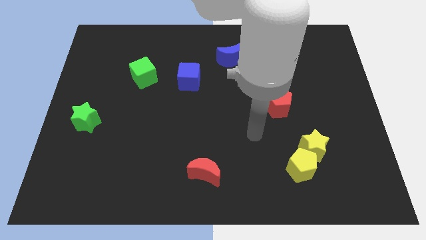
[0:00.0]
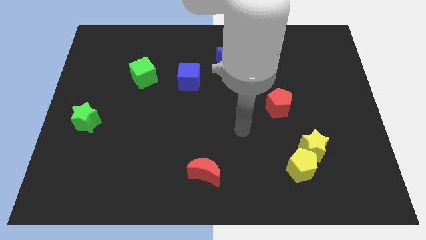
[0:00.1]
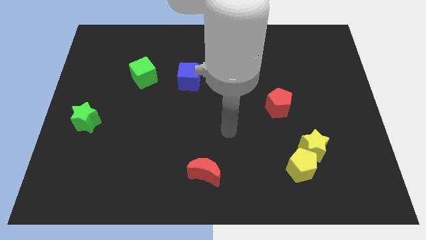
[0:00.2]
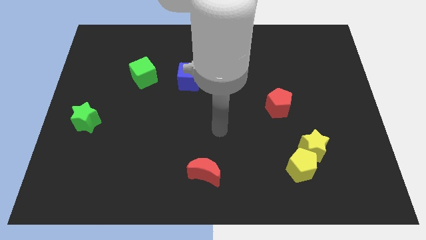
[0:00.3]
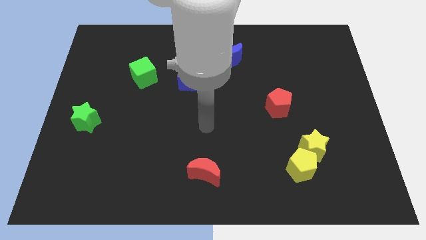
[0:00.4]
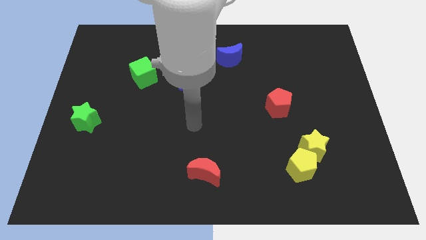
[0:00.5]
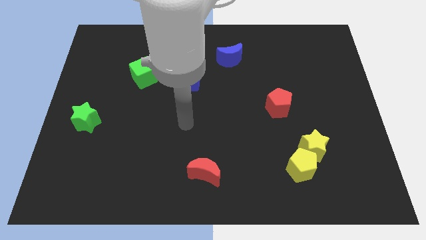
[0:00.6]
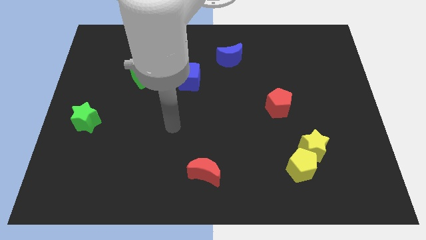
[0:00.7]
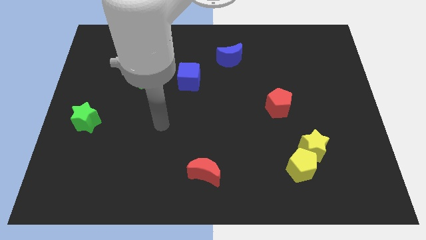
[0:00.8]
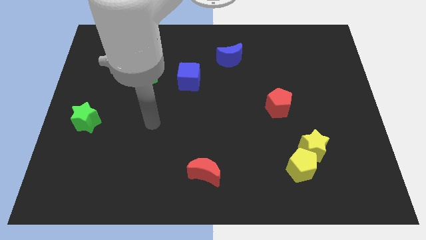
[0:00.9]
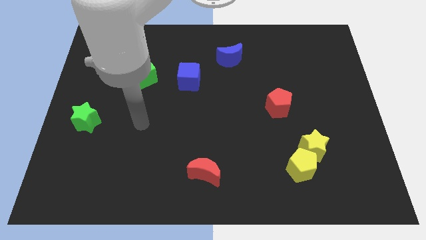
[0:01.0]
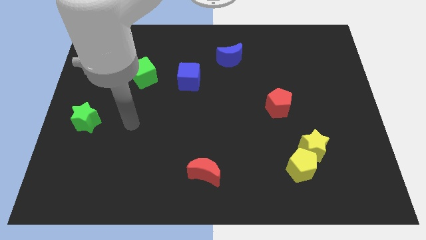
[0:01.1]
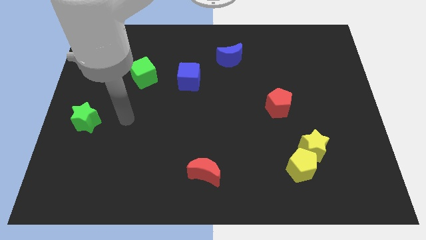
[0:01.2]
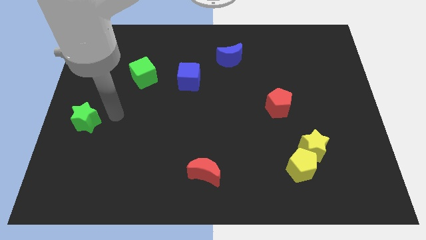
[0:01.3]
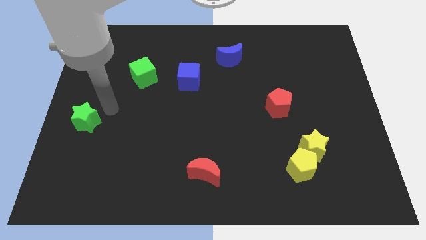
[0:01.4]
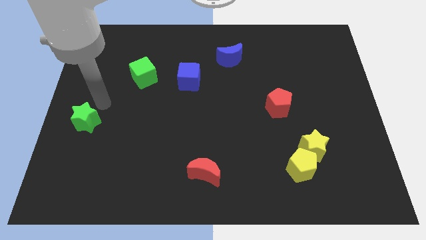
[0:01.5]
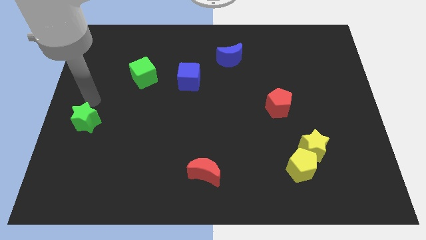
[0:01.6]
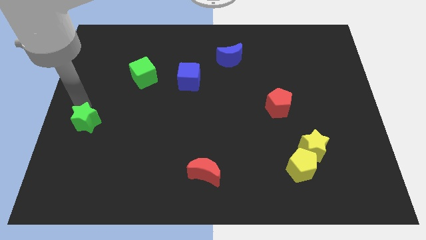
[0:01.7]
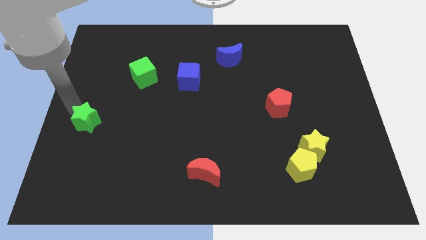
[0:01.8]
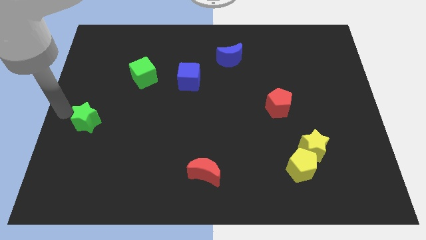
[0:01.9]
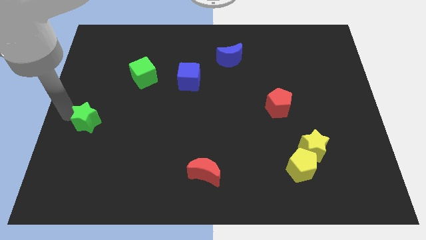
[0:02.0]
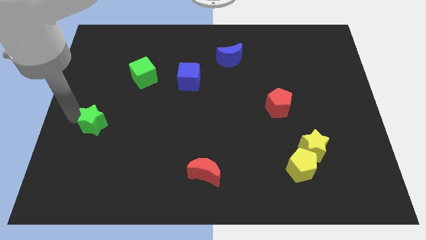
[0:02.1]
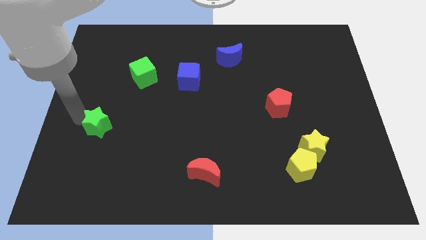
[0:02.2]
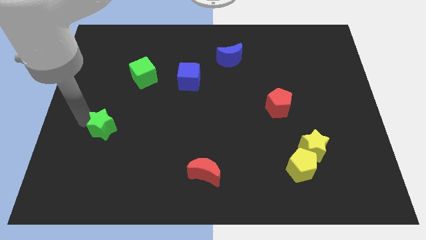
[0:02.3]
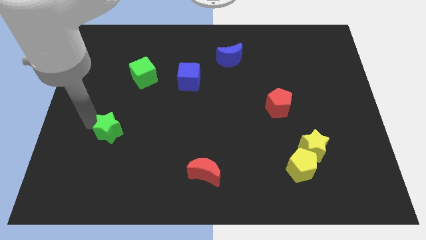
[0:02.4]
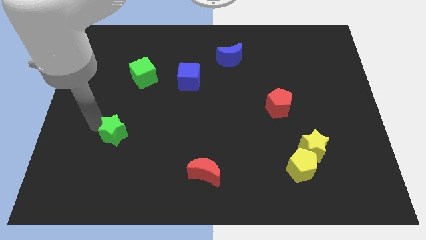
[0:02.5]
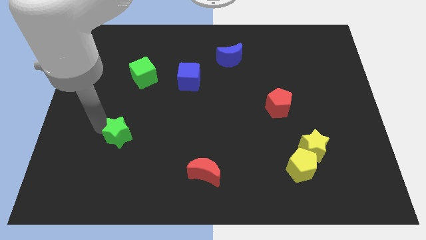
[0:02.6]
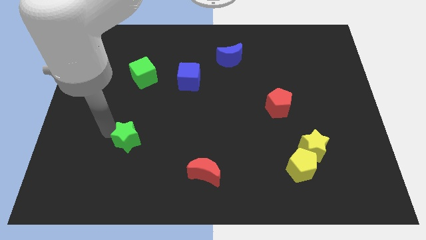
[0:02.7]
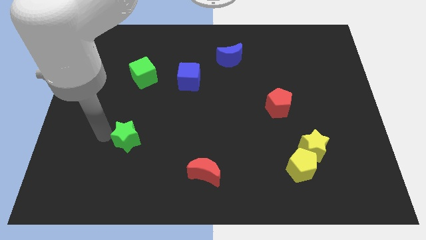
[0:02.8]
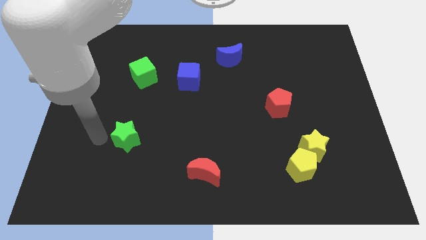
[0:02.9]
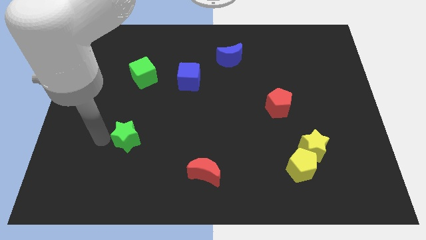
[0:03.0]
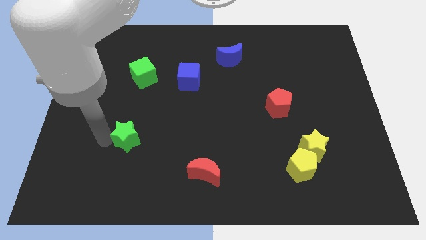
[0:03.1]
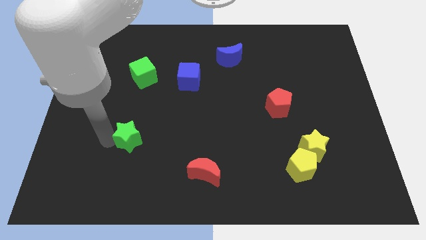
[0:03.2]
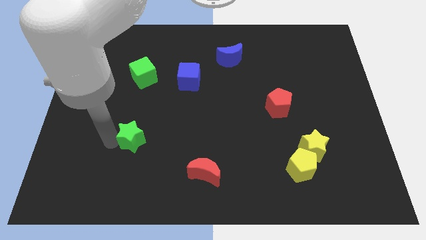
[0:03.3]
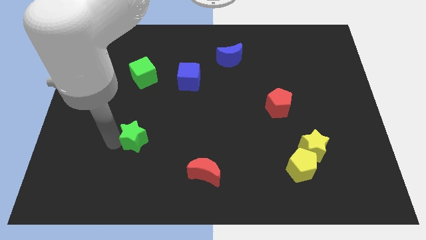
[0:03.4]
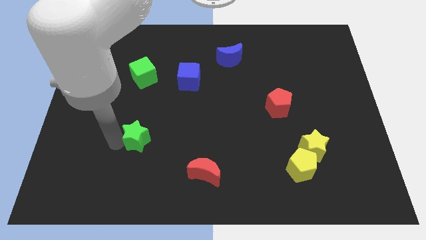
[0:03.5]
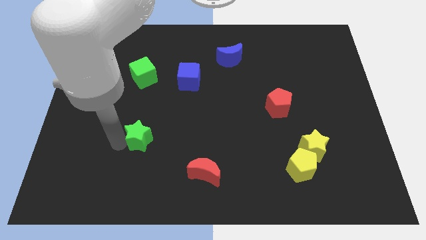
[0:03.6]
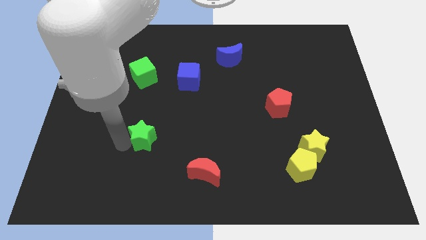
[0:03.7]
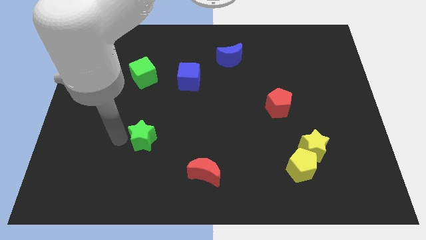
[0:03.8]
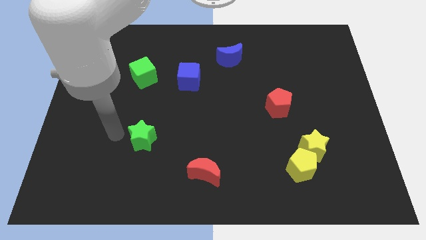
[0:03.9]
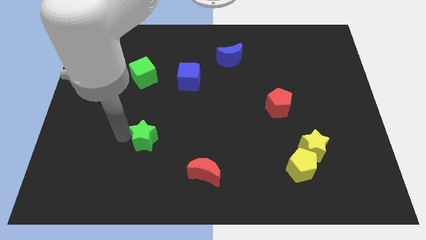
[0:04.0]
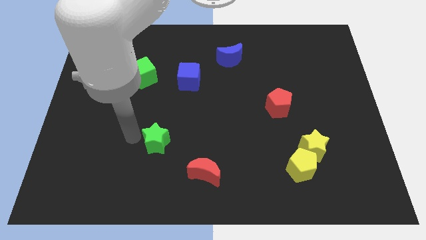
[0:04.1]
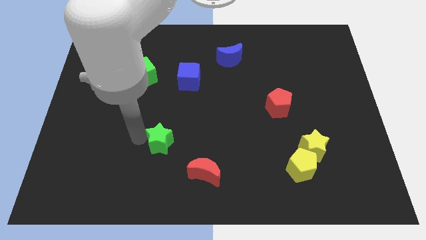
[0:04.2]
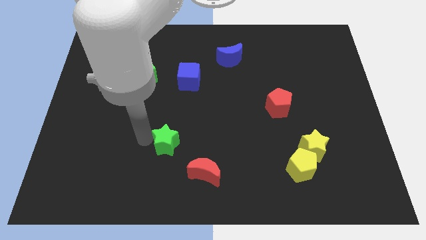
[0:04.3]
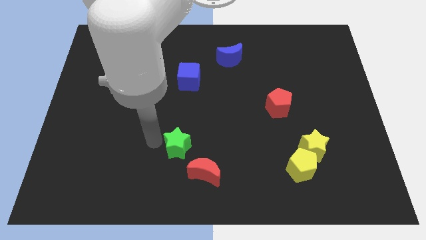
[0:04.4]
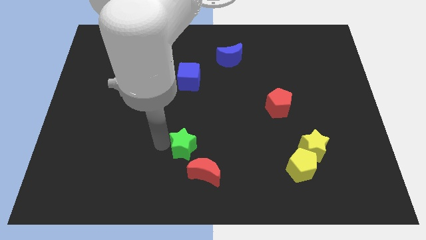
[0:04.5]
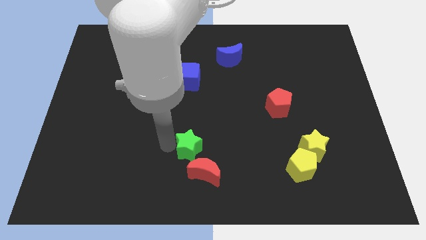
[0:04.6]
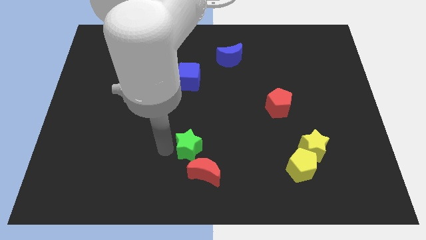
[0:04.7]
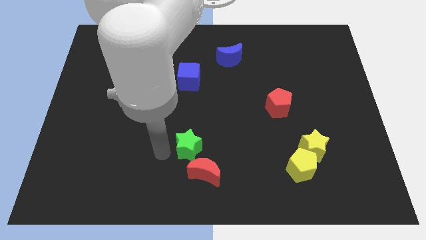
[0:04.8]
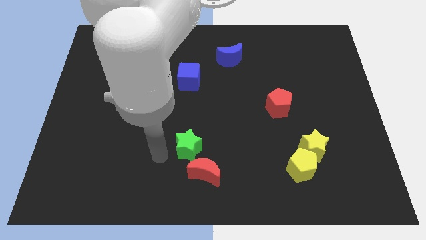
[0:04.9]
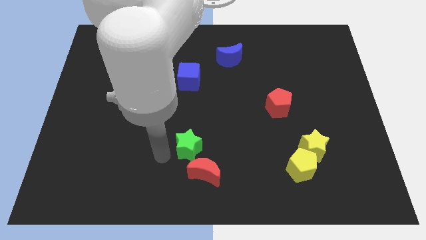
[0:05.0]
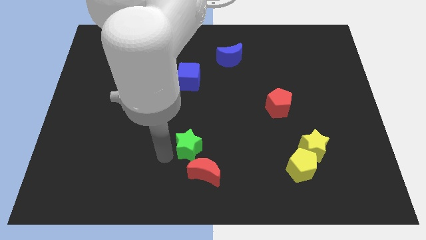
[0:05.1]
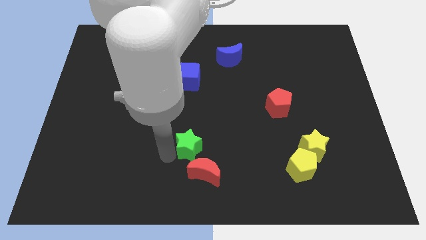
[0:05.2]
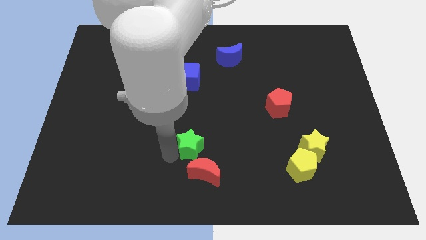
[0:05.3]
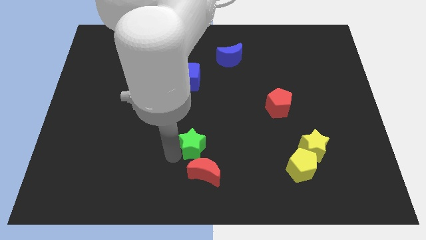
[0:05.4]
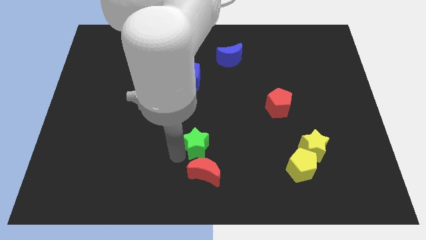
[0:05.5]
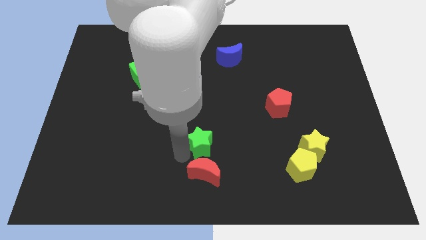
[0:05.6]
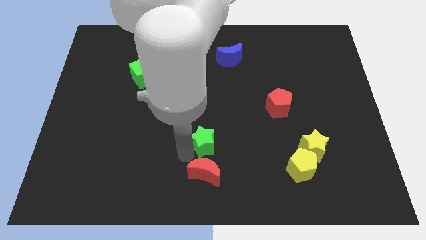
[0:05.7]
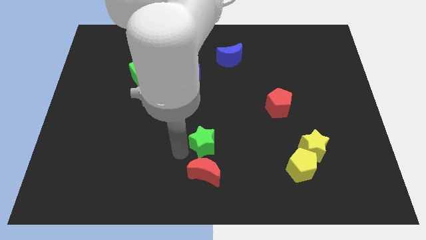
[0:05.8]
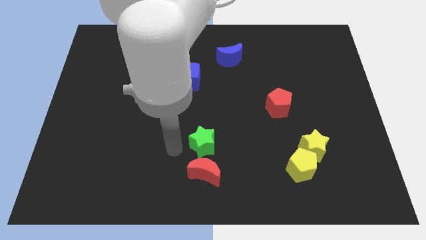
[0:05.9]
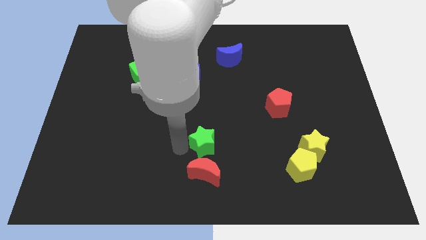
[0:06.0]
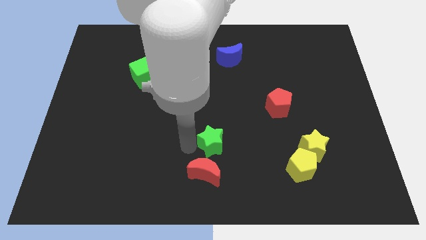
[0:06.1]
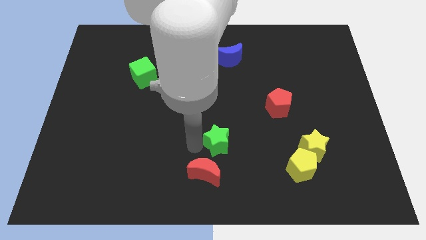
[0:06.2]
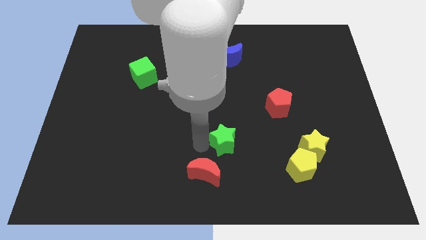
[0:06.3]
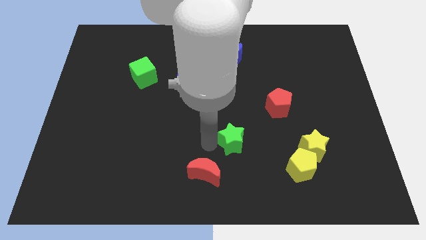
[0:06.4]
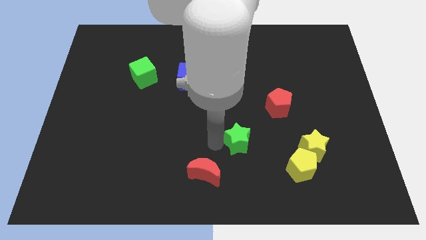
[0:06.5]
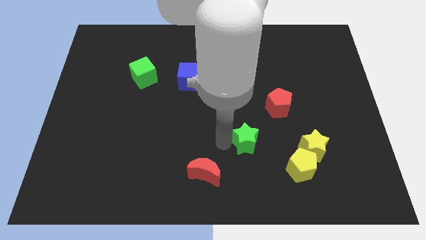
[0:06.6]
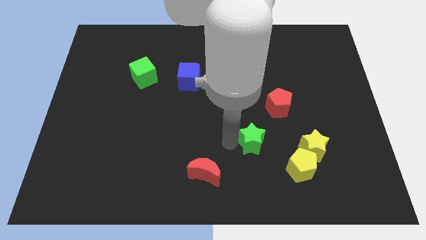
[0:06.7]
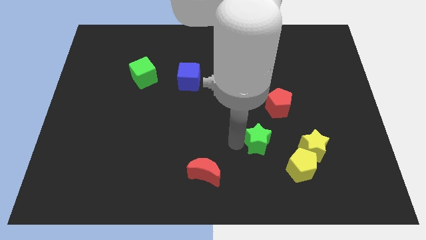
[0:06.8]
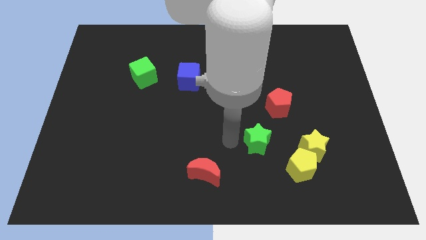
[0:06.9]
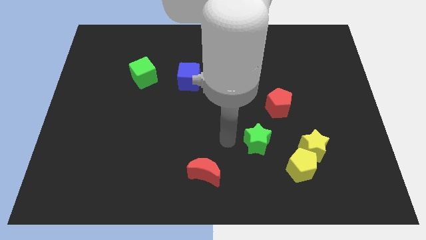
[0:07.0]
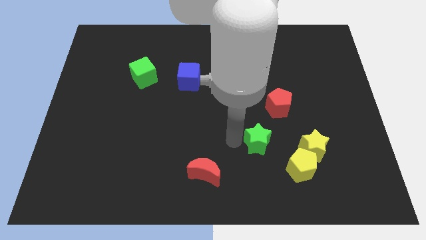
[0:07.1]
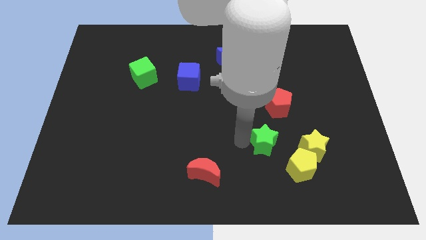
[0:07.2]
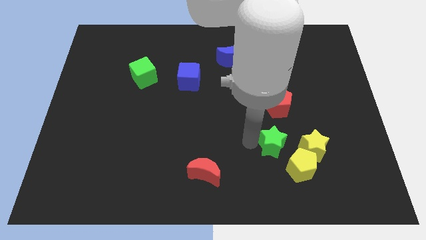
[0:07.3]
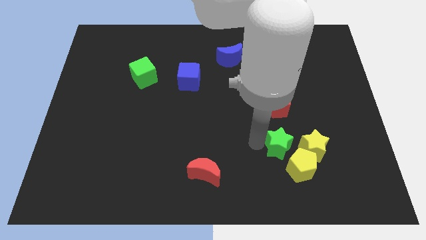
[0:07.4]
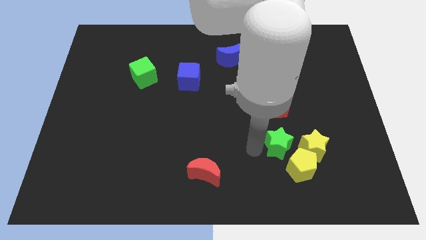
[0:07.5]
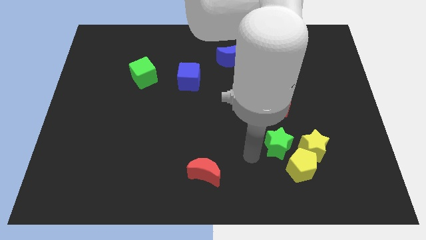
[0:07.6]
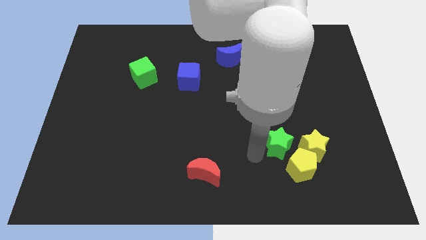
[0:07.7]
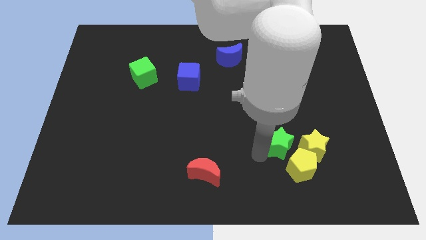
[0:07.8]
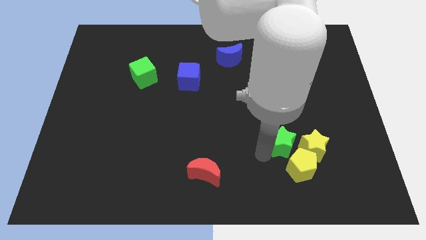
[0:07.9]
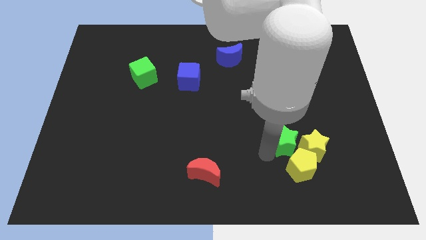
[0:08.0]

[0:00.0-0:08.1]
slide the green star next to the yellow star
